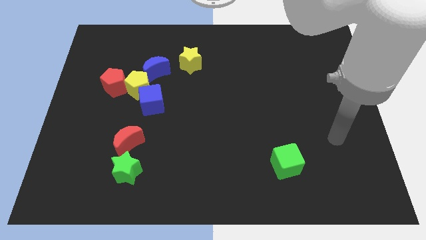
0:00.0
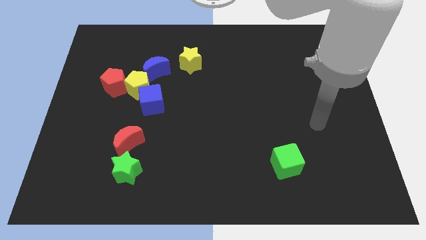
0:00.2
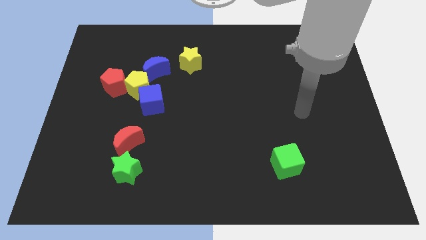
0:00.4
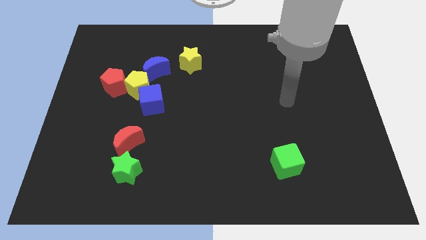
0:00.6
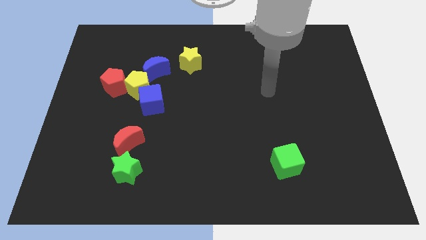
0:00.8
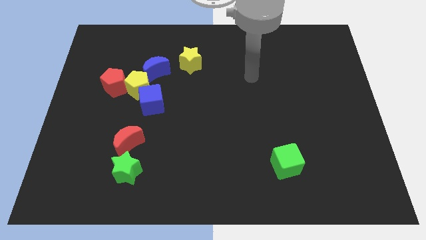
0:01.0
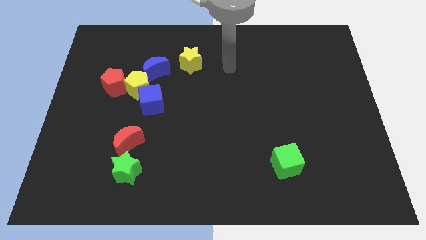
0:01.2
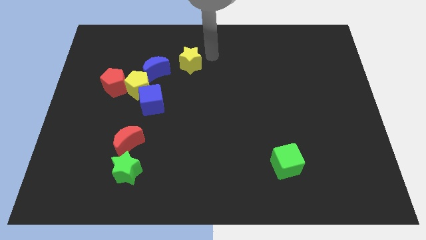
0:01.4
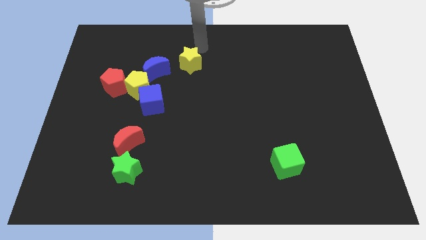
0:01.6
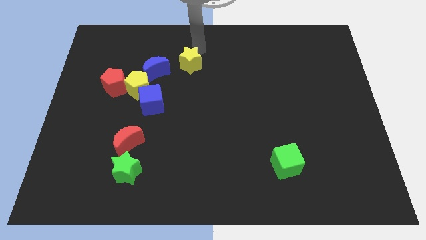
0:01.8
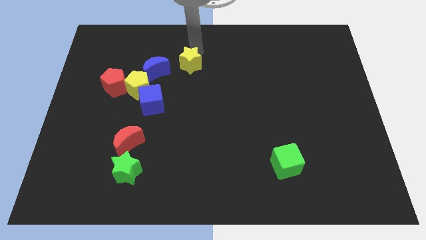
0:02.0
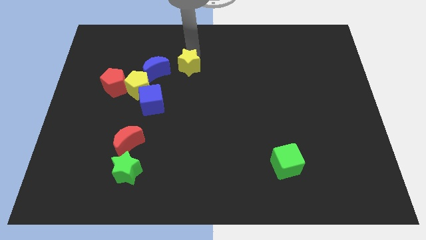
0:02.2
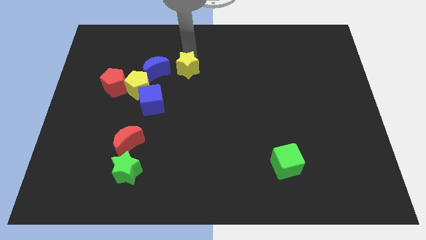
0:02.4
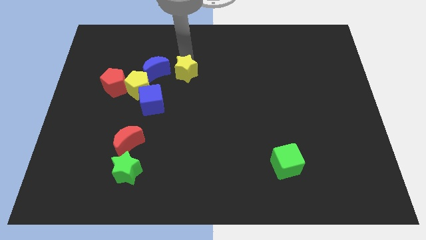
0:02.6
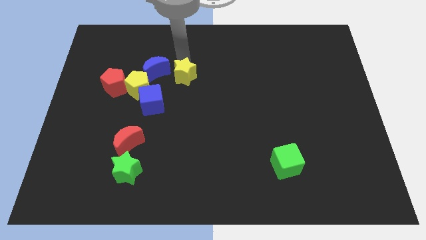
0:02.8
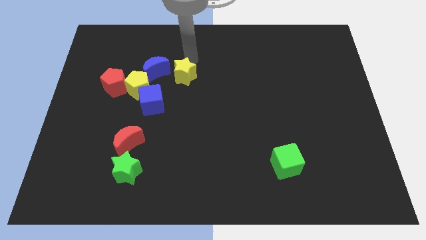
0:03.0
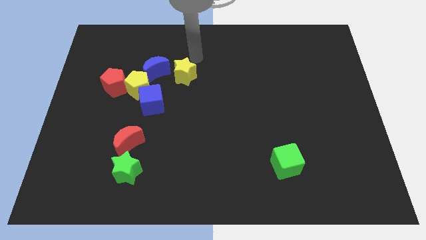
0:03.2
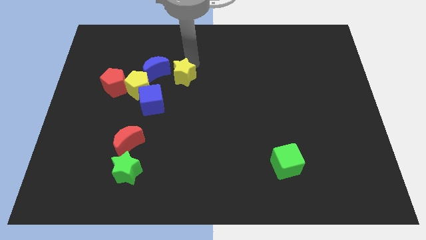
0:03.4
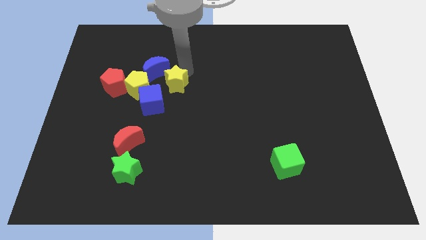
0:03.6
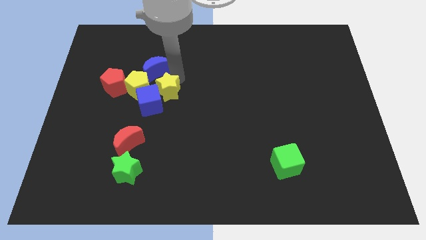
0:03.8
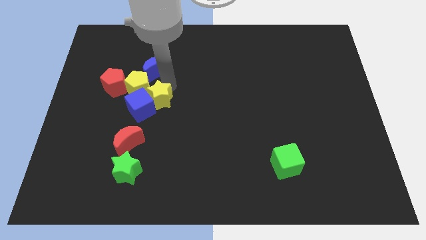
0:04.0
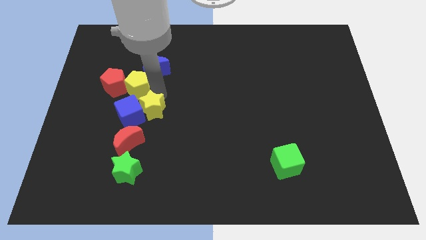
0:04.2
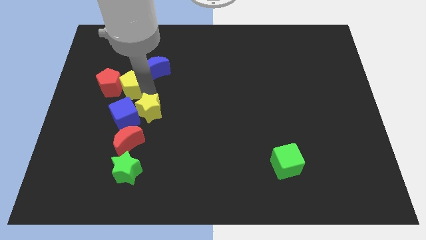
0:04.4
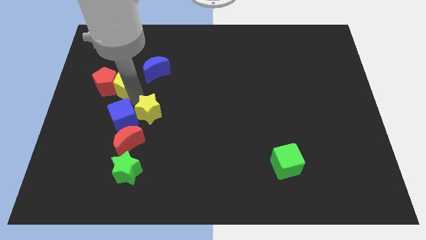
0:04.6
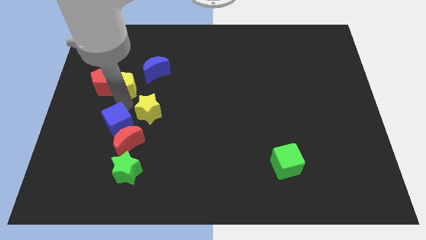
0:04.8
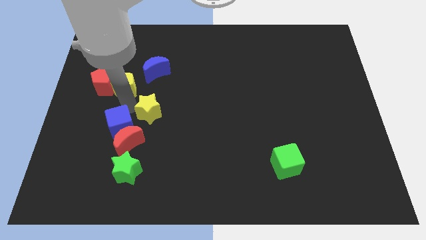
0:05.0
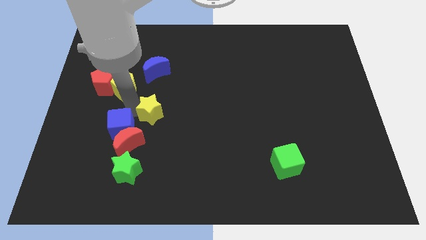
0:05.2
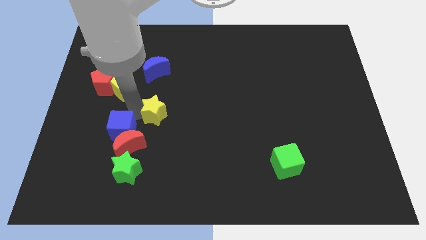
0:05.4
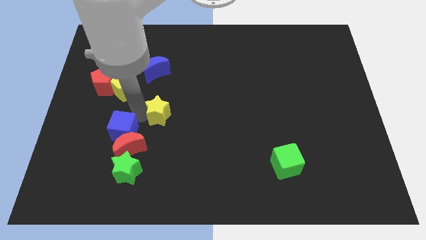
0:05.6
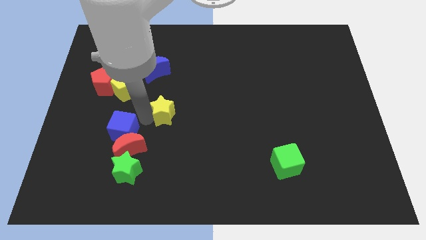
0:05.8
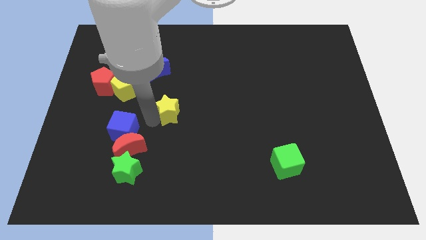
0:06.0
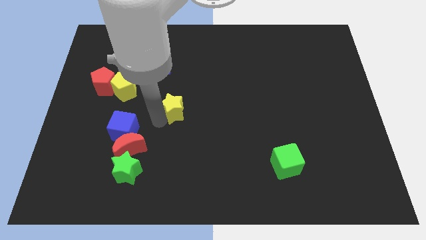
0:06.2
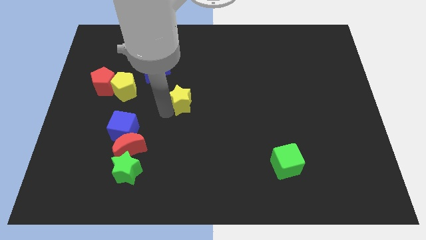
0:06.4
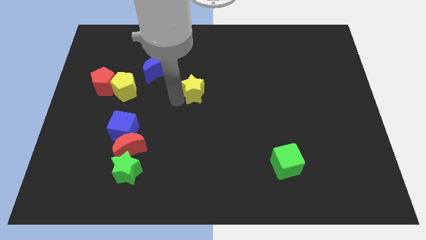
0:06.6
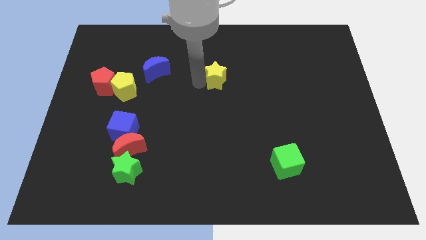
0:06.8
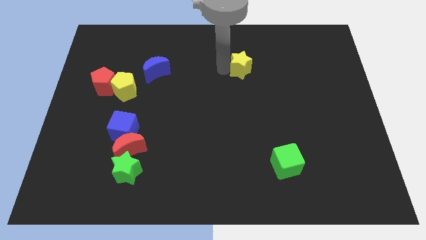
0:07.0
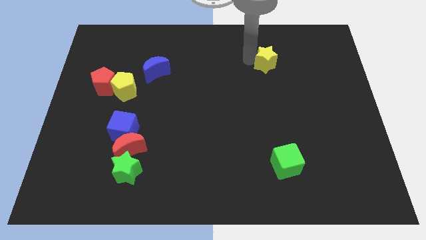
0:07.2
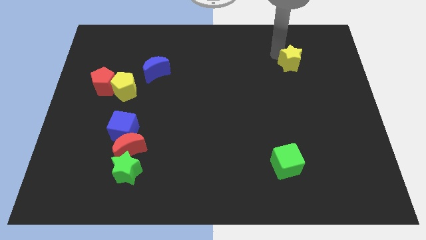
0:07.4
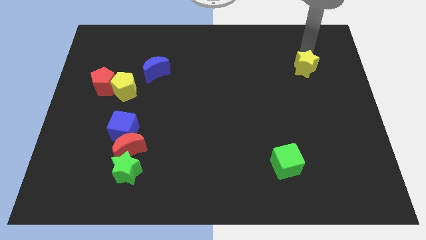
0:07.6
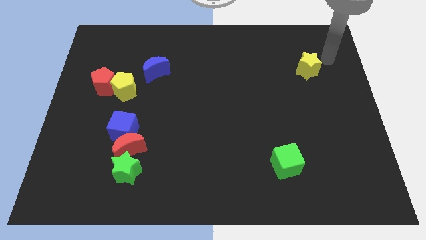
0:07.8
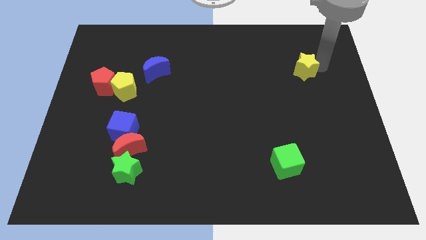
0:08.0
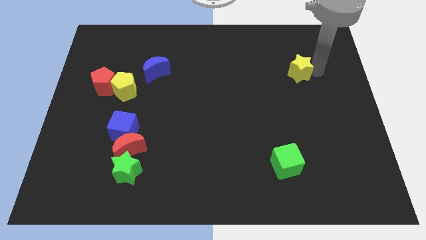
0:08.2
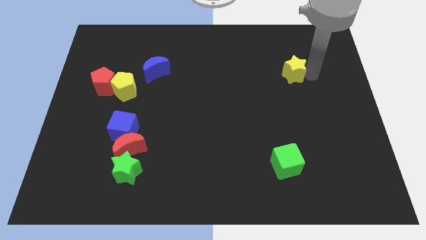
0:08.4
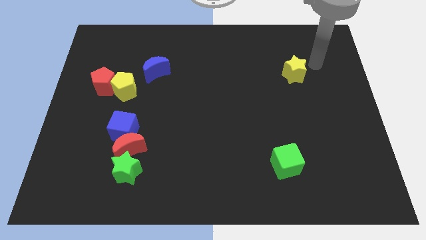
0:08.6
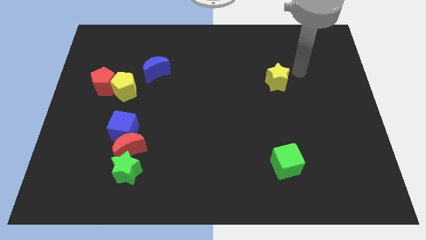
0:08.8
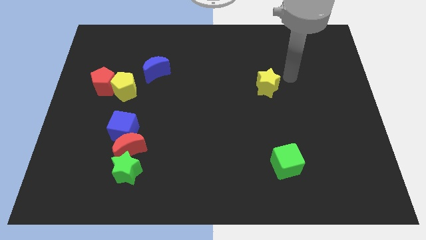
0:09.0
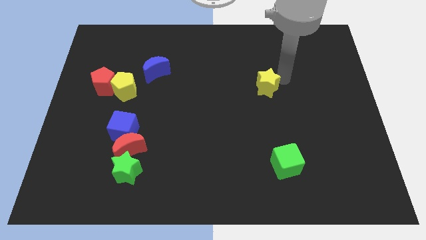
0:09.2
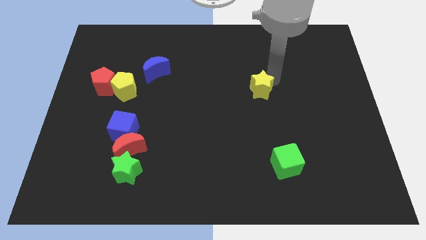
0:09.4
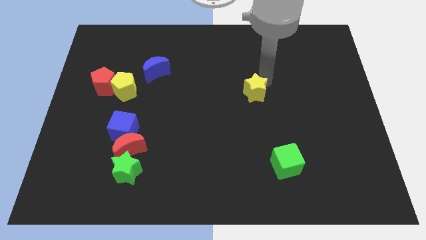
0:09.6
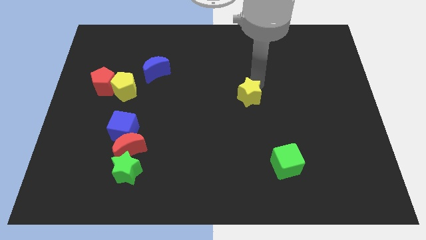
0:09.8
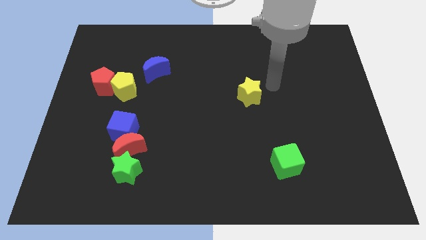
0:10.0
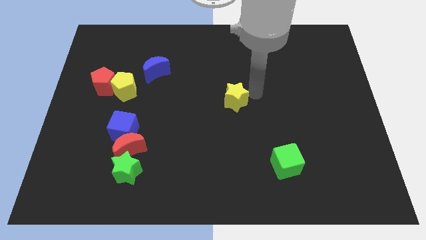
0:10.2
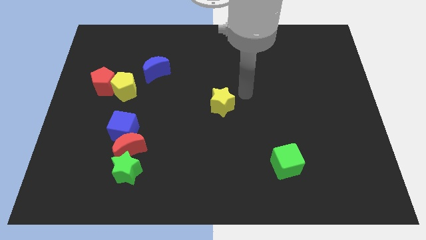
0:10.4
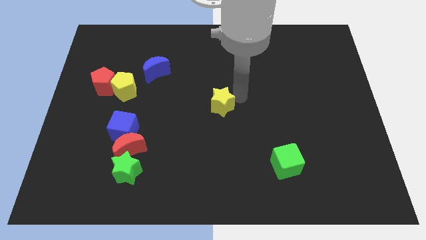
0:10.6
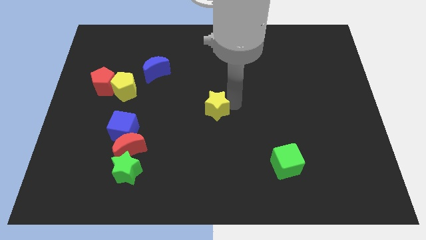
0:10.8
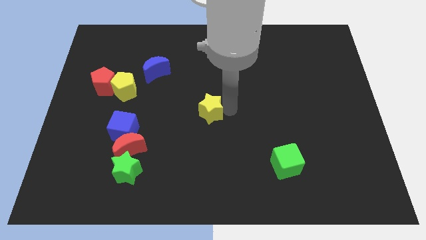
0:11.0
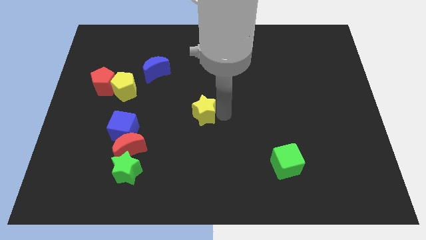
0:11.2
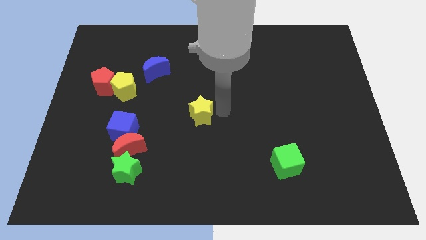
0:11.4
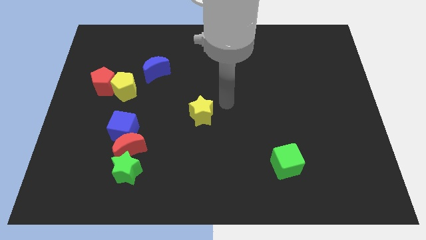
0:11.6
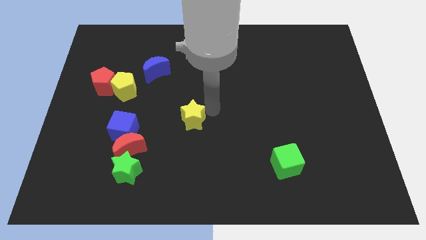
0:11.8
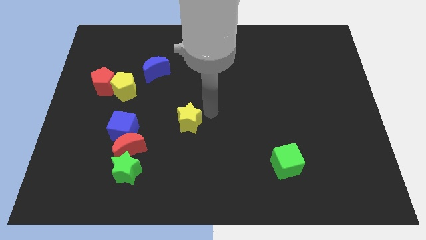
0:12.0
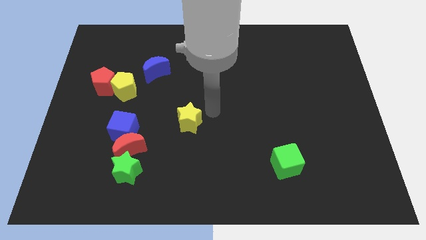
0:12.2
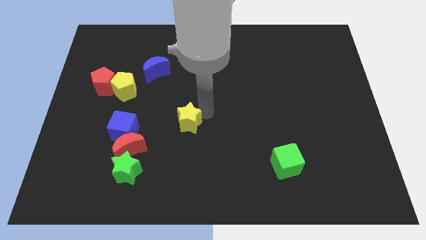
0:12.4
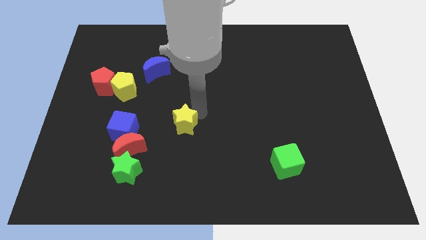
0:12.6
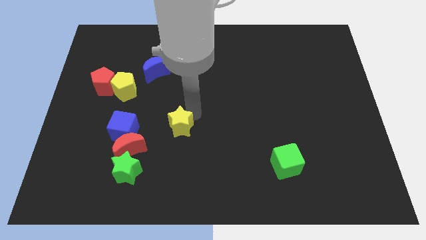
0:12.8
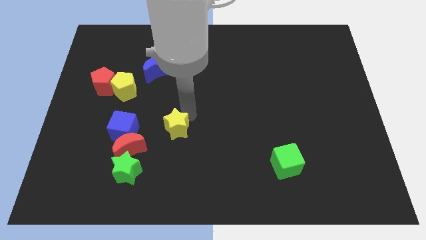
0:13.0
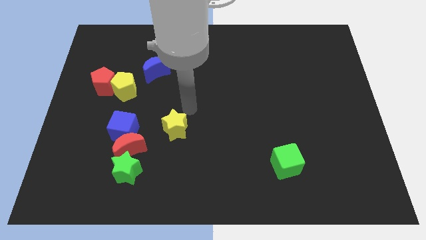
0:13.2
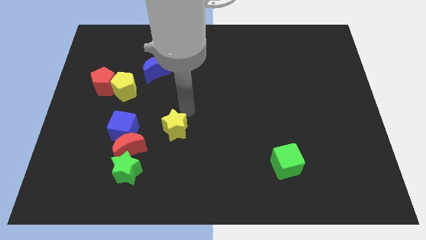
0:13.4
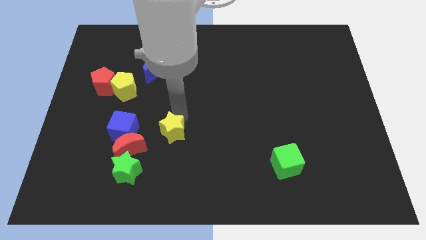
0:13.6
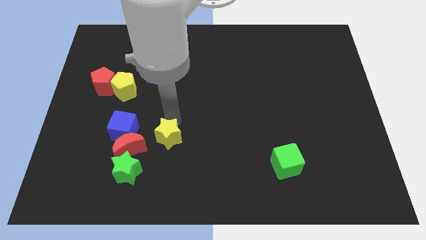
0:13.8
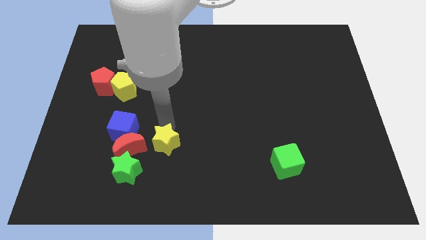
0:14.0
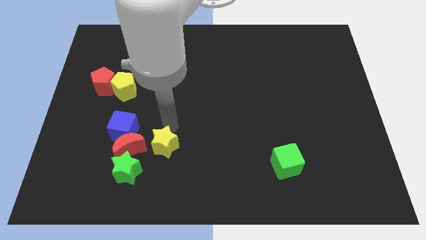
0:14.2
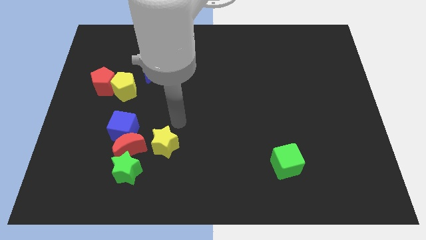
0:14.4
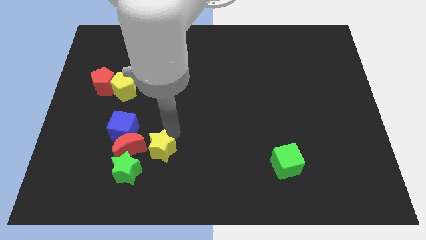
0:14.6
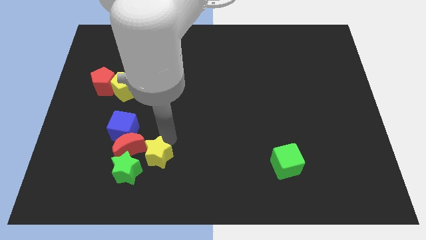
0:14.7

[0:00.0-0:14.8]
move the yellow star to the bottom right side of the red moon
